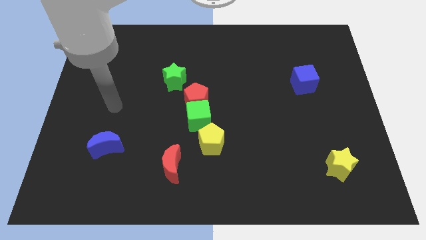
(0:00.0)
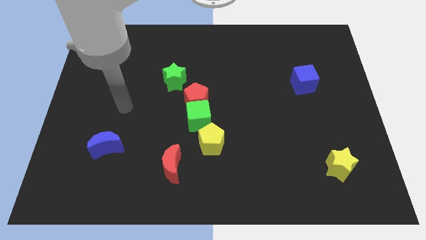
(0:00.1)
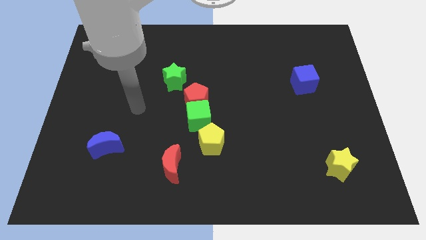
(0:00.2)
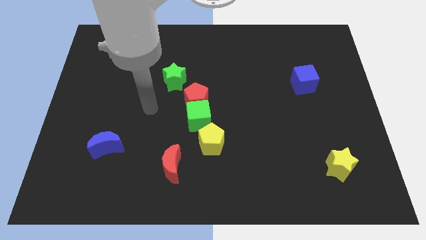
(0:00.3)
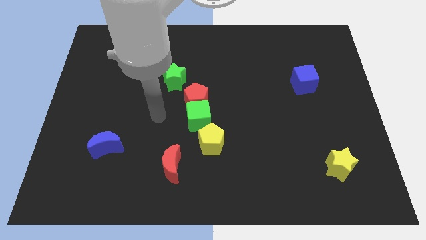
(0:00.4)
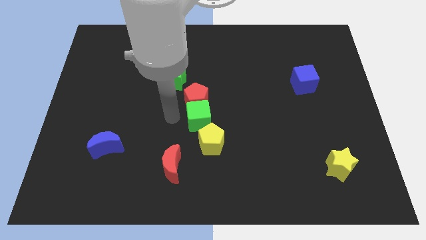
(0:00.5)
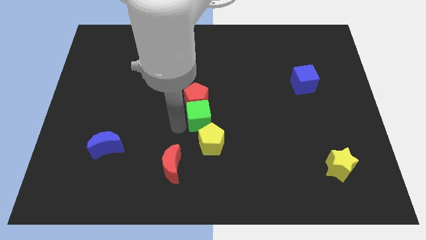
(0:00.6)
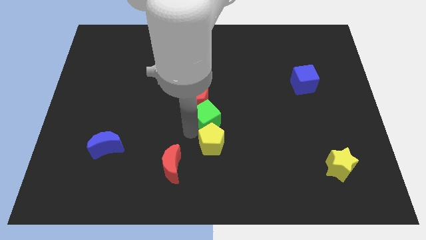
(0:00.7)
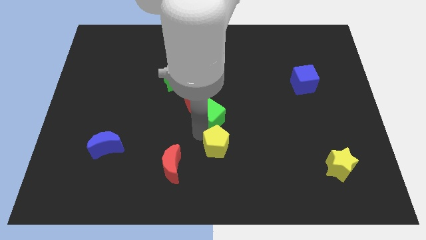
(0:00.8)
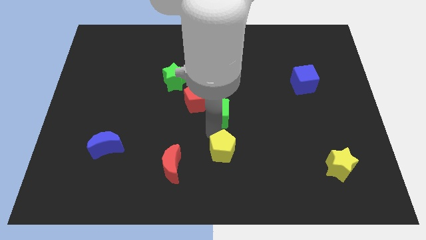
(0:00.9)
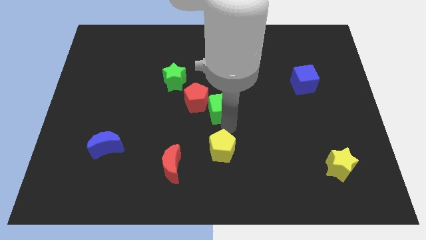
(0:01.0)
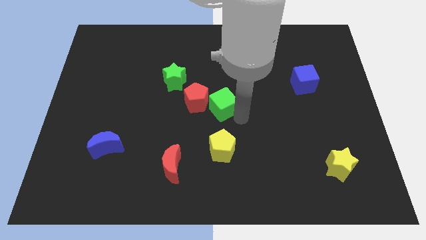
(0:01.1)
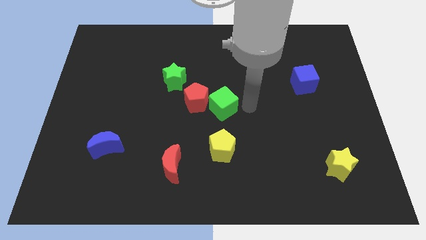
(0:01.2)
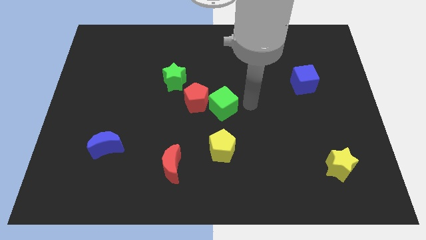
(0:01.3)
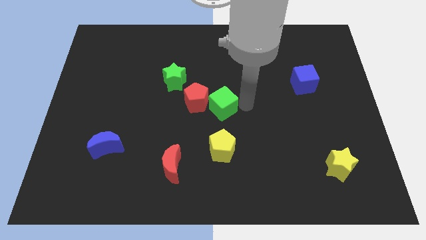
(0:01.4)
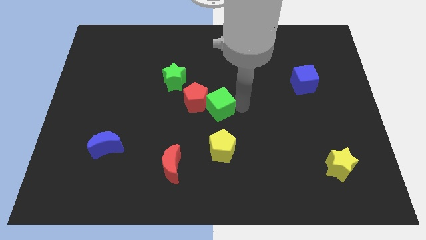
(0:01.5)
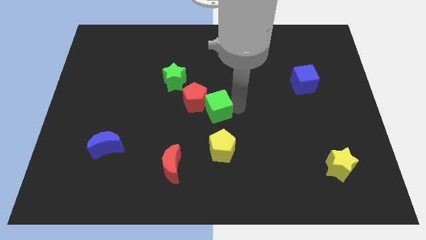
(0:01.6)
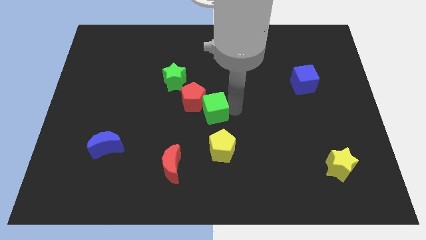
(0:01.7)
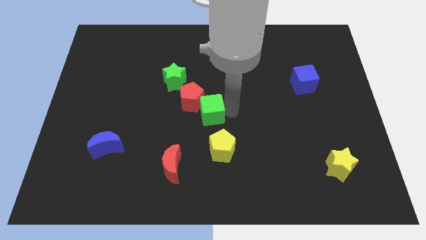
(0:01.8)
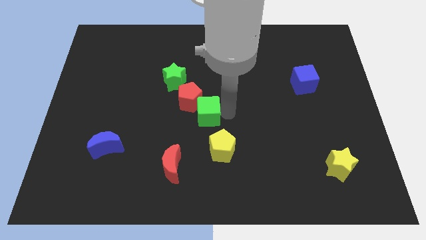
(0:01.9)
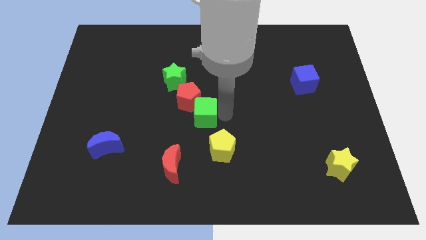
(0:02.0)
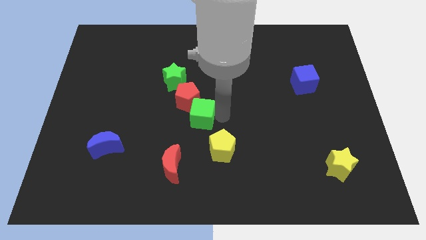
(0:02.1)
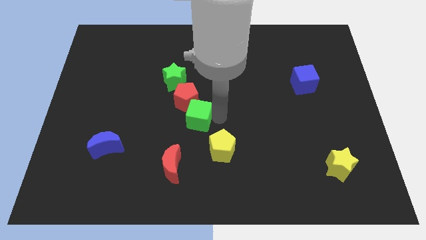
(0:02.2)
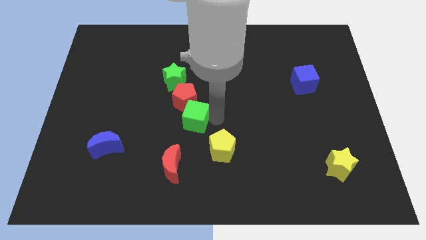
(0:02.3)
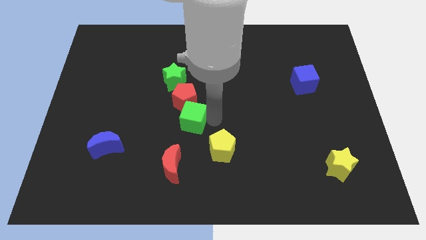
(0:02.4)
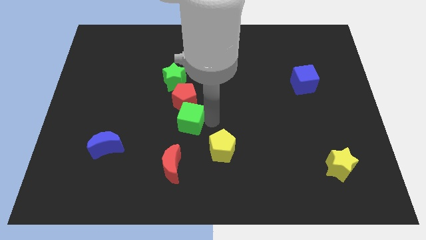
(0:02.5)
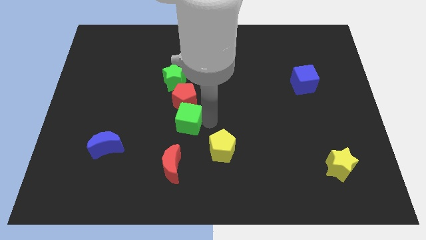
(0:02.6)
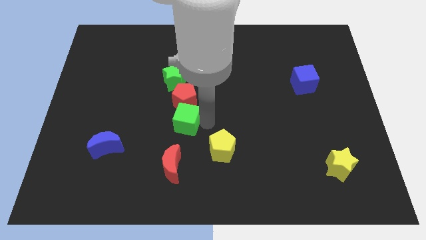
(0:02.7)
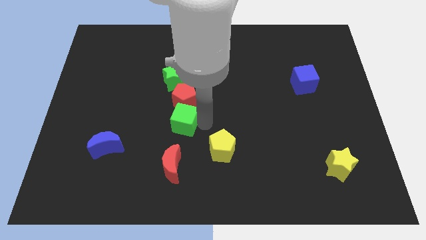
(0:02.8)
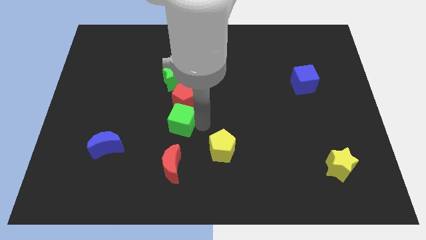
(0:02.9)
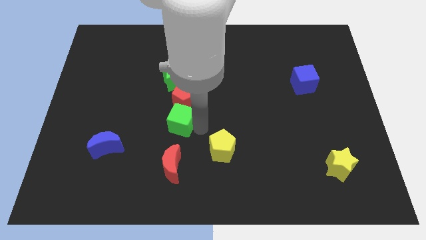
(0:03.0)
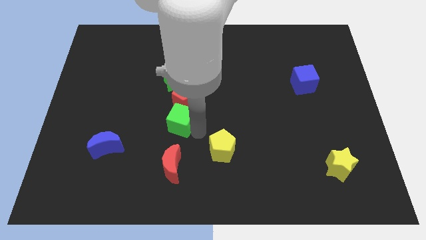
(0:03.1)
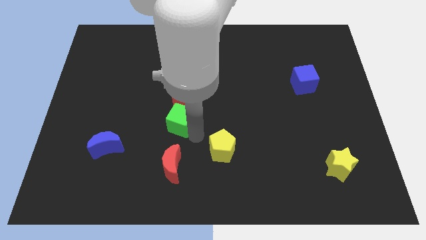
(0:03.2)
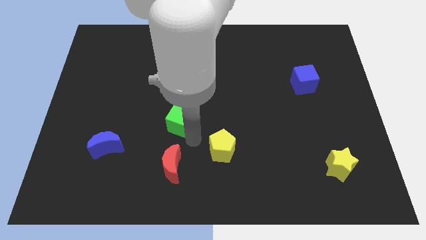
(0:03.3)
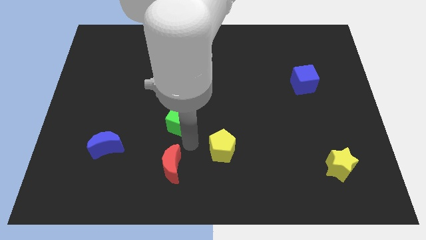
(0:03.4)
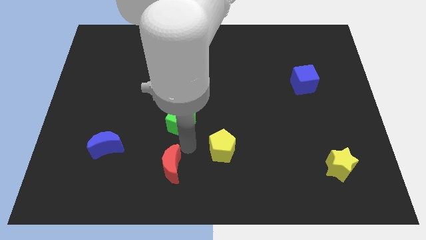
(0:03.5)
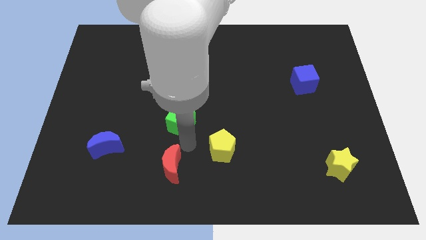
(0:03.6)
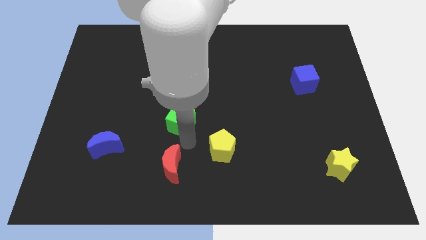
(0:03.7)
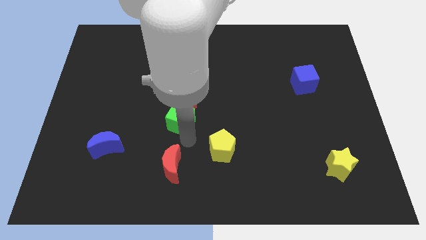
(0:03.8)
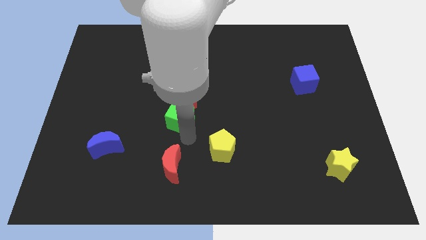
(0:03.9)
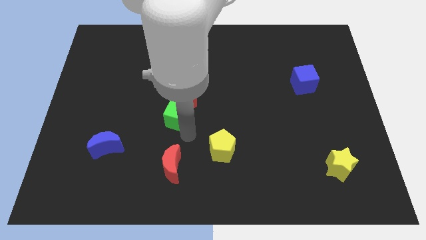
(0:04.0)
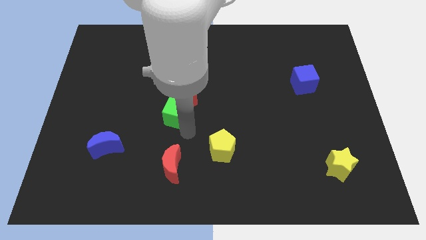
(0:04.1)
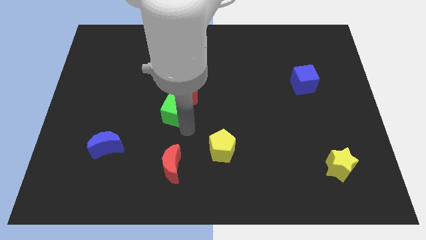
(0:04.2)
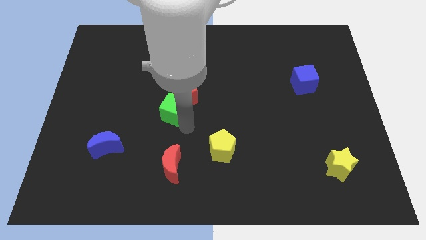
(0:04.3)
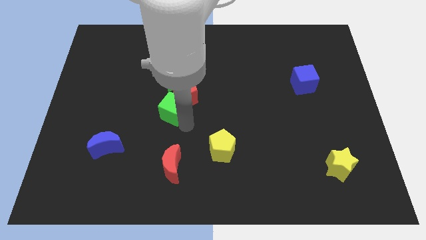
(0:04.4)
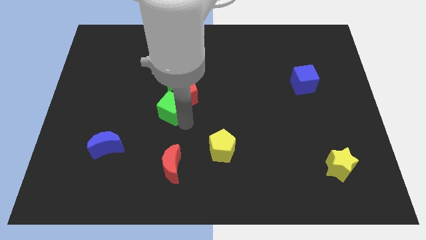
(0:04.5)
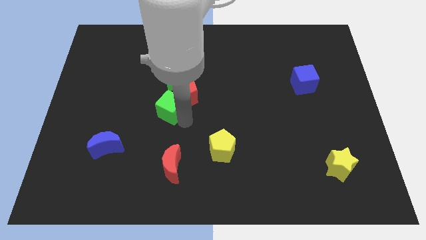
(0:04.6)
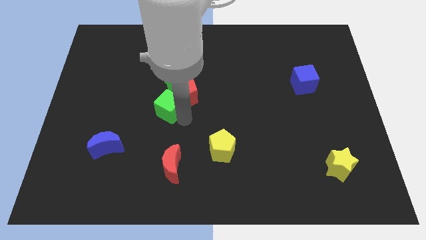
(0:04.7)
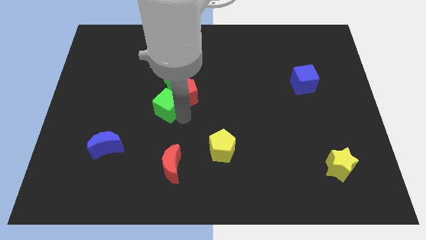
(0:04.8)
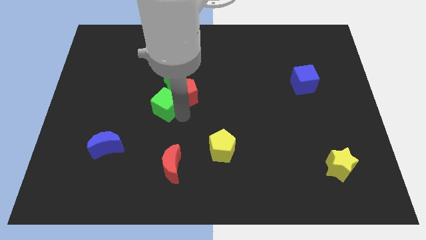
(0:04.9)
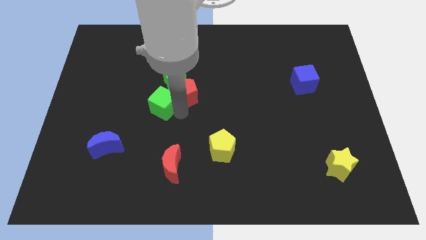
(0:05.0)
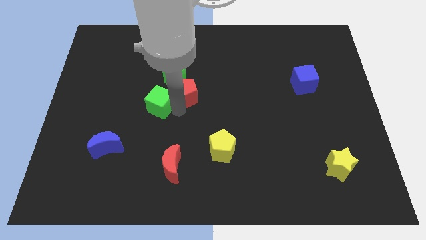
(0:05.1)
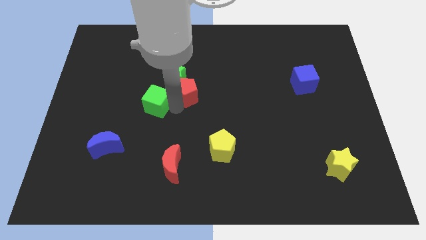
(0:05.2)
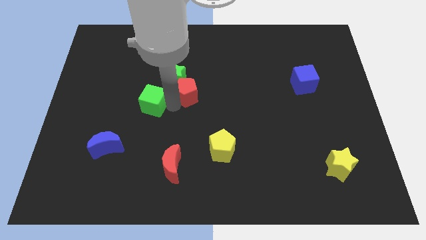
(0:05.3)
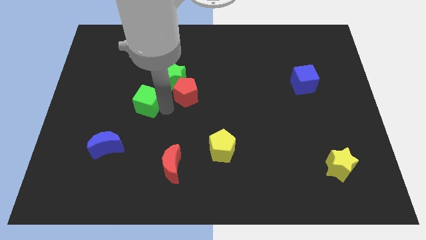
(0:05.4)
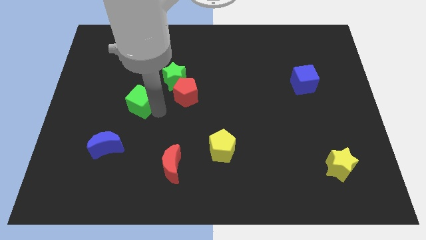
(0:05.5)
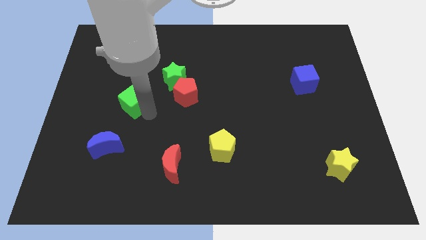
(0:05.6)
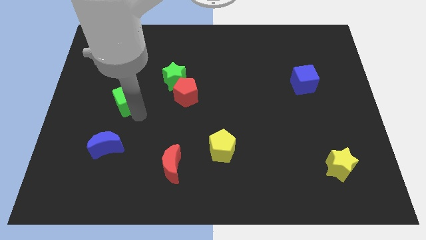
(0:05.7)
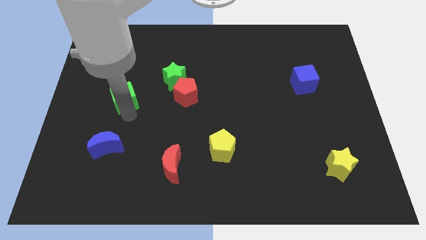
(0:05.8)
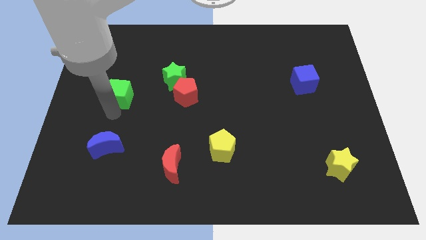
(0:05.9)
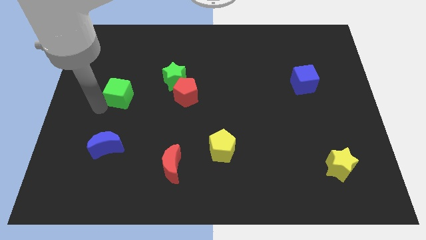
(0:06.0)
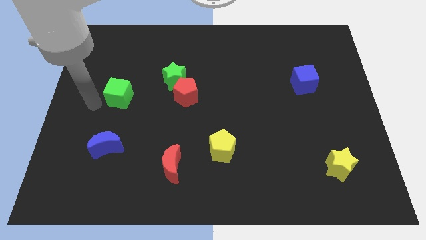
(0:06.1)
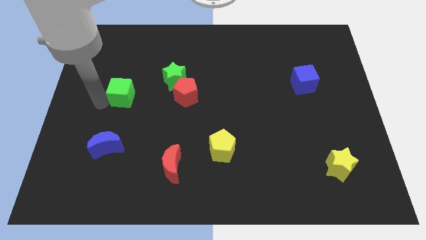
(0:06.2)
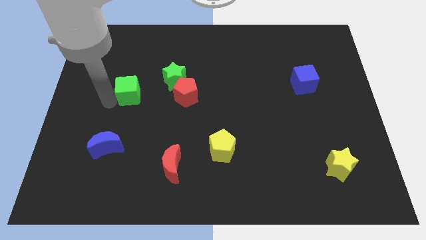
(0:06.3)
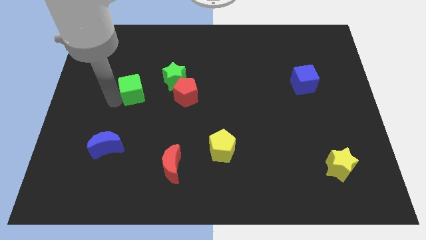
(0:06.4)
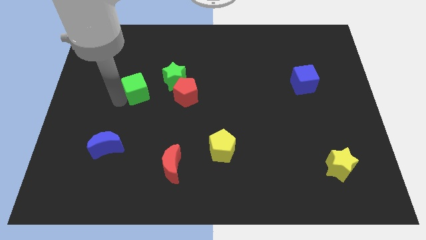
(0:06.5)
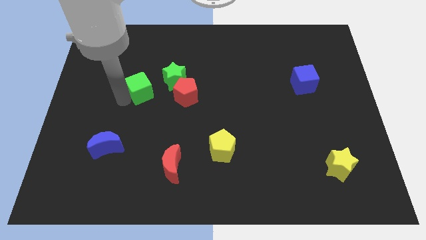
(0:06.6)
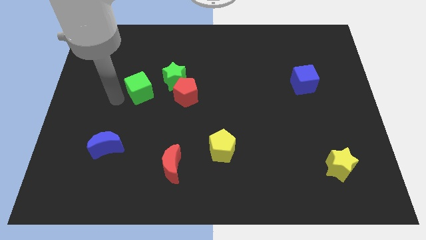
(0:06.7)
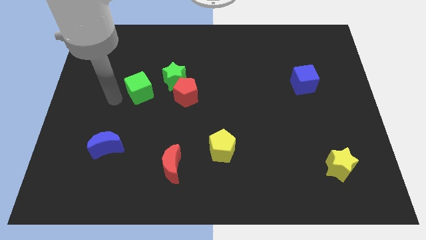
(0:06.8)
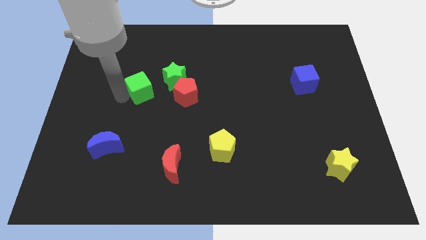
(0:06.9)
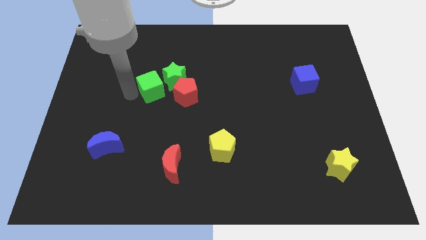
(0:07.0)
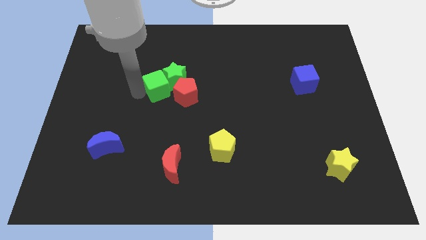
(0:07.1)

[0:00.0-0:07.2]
slide the green cube to the green star

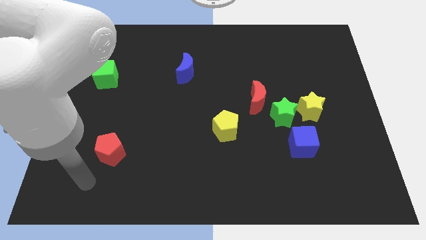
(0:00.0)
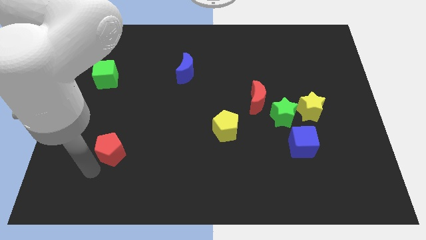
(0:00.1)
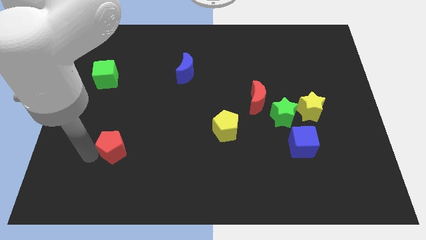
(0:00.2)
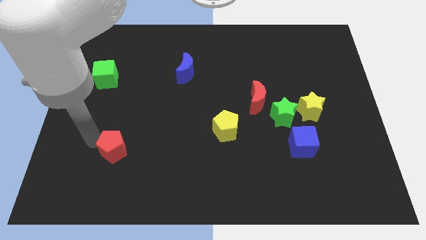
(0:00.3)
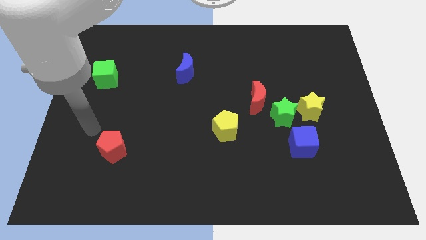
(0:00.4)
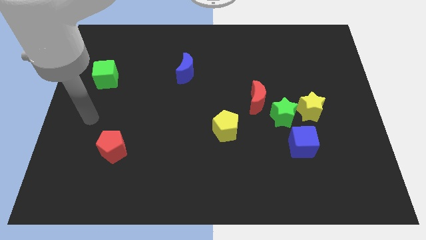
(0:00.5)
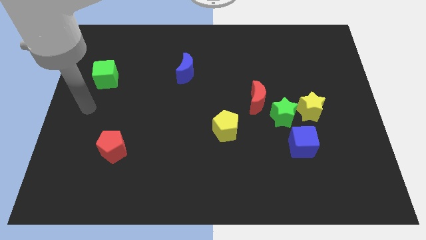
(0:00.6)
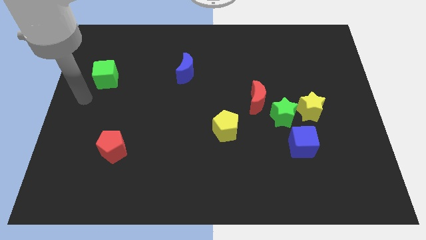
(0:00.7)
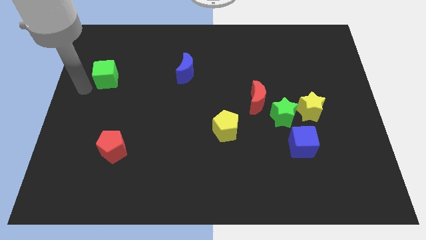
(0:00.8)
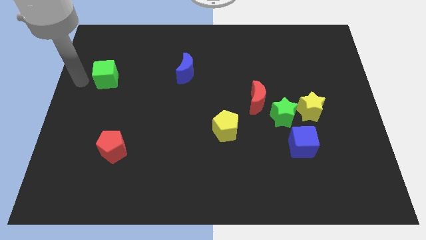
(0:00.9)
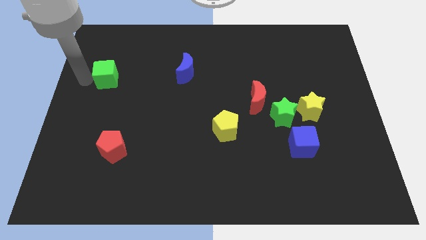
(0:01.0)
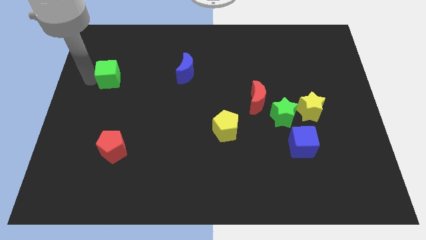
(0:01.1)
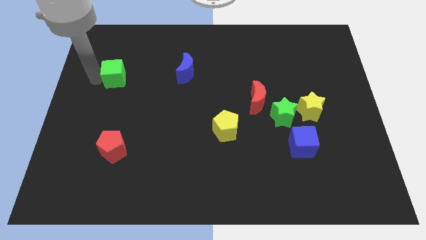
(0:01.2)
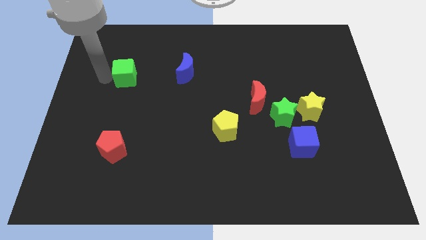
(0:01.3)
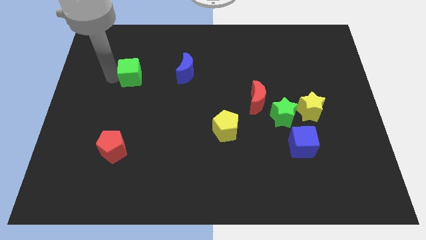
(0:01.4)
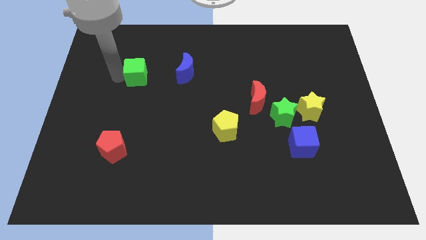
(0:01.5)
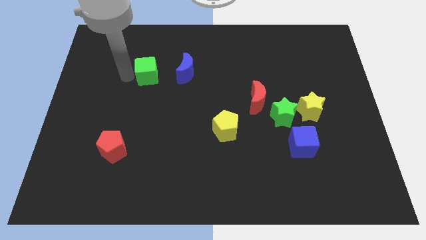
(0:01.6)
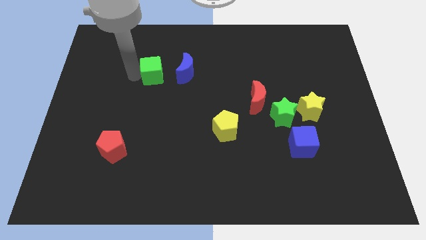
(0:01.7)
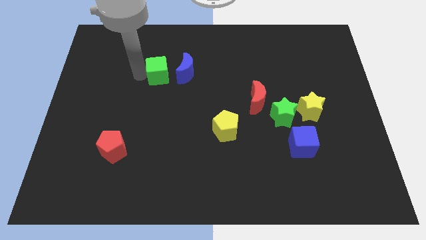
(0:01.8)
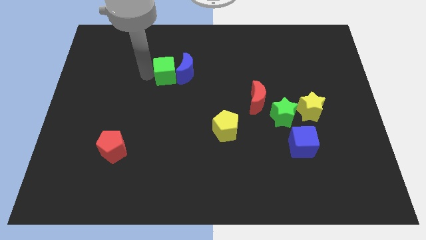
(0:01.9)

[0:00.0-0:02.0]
move the green cube close to the blue moon
